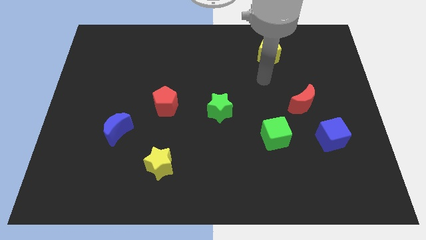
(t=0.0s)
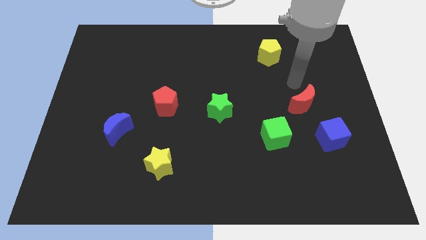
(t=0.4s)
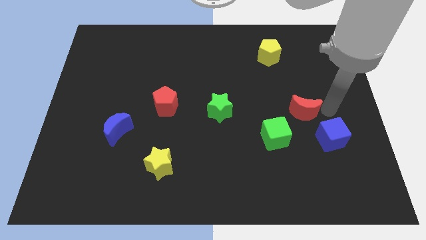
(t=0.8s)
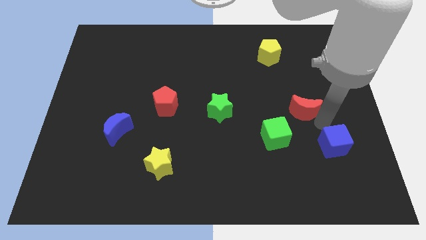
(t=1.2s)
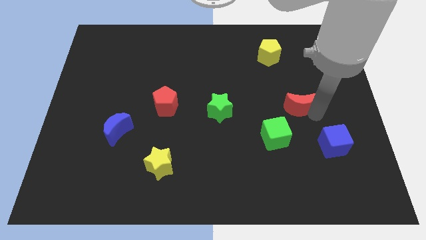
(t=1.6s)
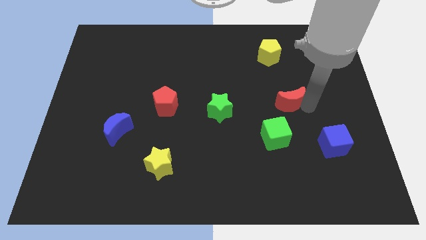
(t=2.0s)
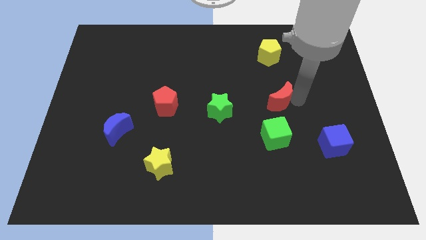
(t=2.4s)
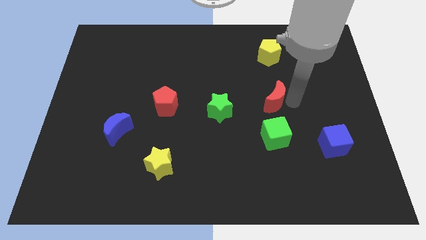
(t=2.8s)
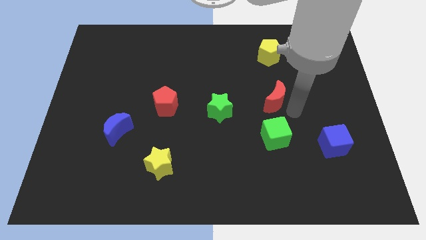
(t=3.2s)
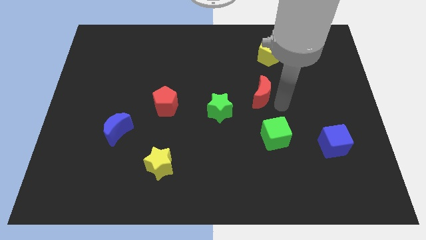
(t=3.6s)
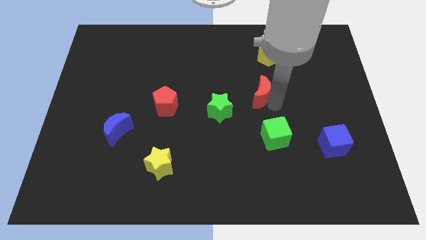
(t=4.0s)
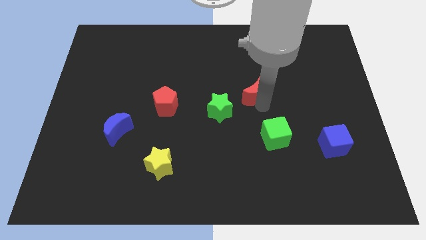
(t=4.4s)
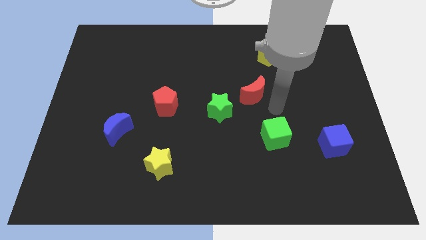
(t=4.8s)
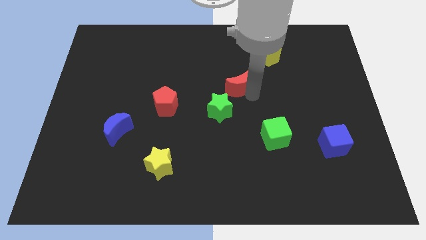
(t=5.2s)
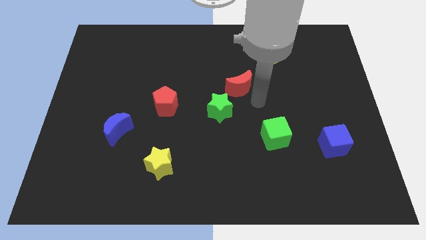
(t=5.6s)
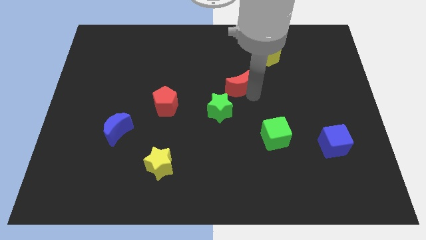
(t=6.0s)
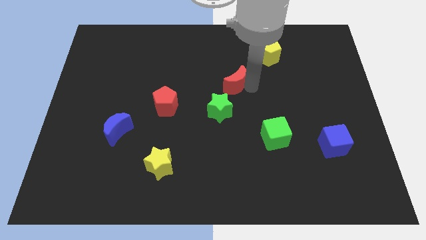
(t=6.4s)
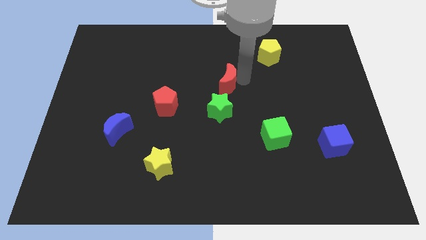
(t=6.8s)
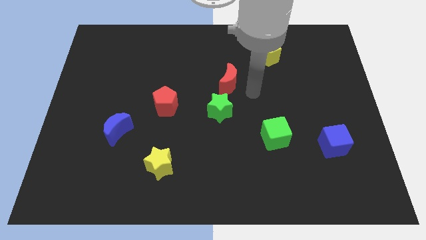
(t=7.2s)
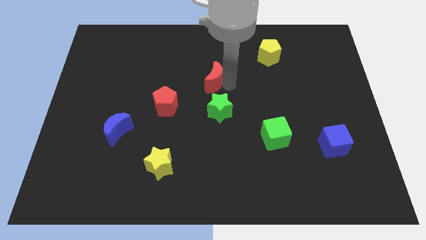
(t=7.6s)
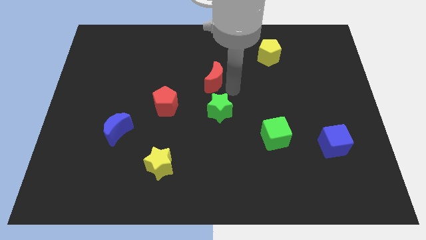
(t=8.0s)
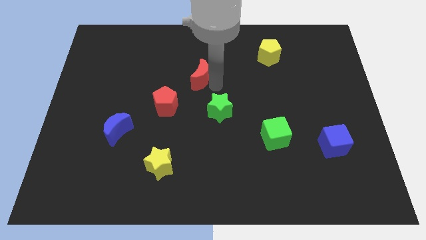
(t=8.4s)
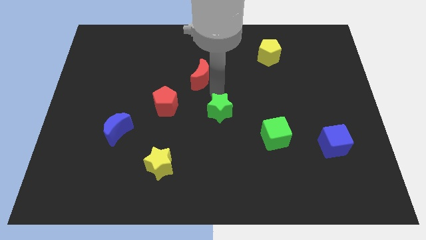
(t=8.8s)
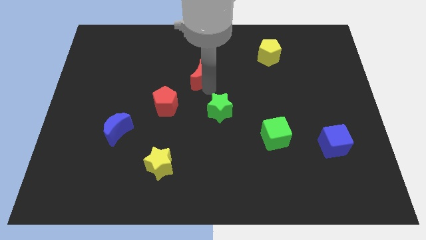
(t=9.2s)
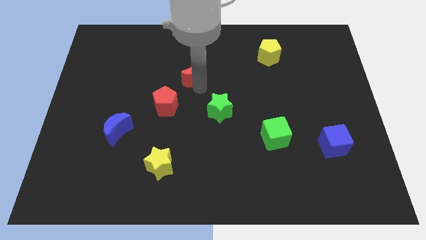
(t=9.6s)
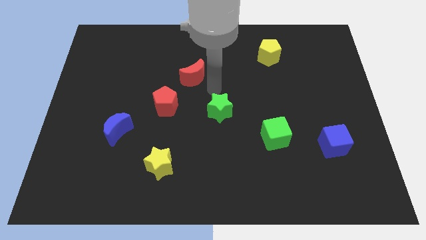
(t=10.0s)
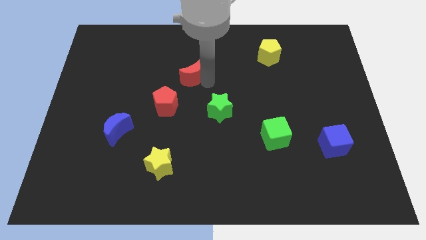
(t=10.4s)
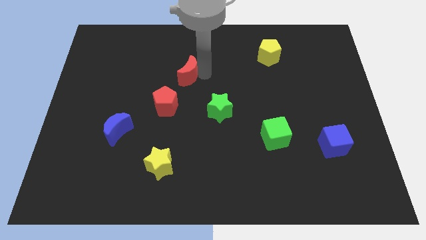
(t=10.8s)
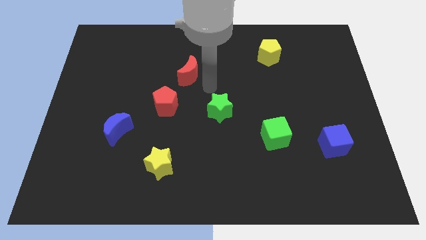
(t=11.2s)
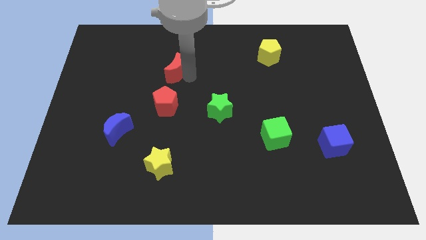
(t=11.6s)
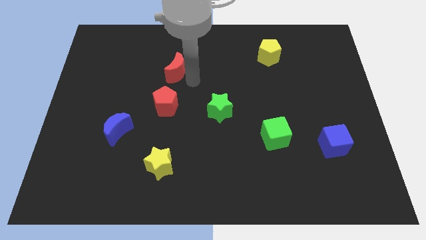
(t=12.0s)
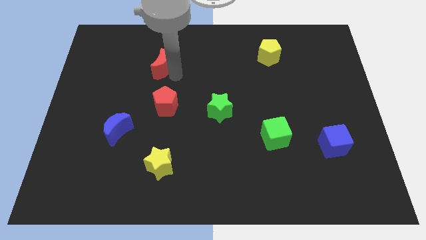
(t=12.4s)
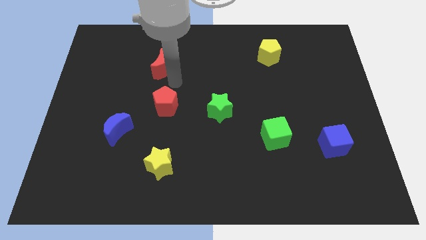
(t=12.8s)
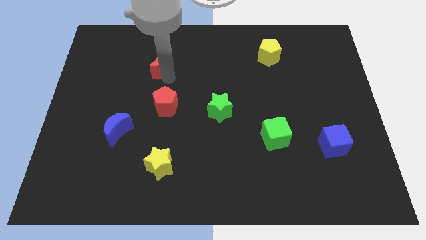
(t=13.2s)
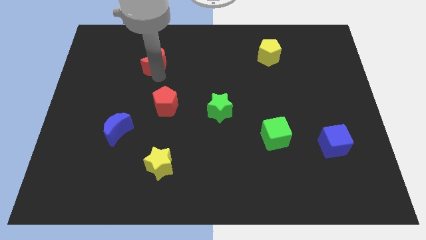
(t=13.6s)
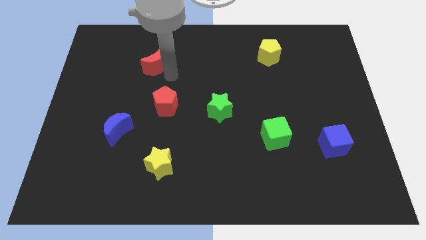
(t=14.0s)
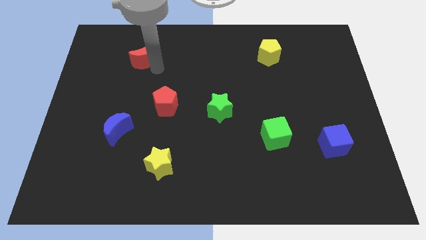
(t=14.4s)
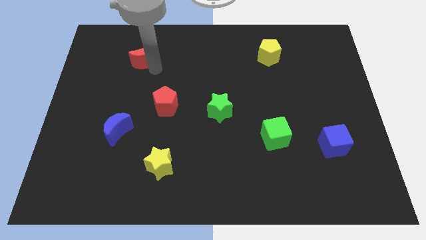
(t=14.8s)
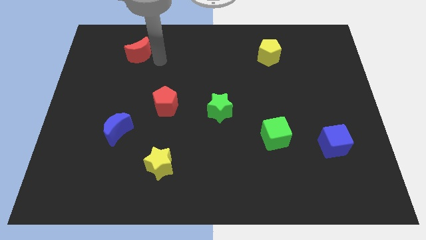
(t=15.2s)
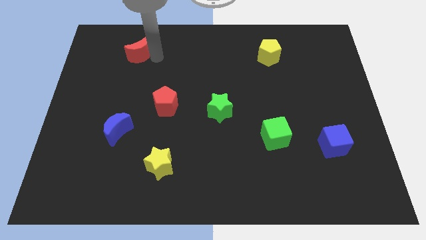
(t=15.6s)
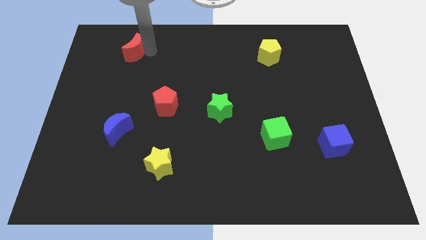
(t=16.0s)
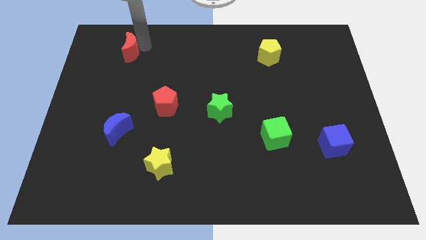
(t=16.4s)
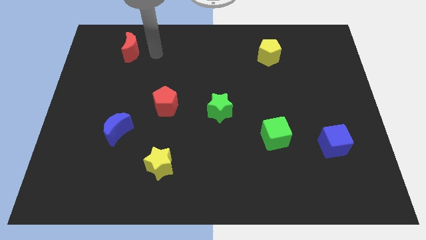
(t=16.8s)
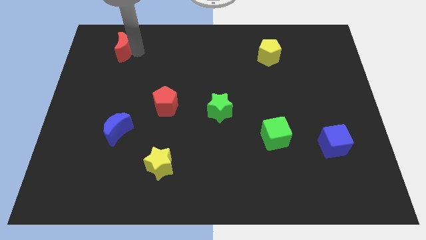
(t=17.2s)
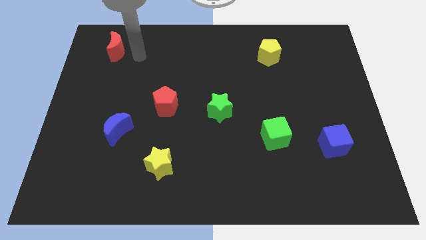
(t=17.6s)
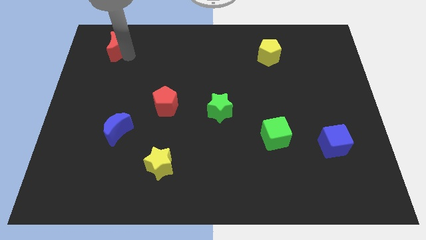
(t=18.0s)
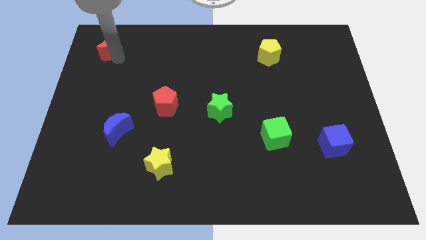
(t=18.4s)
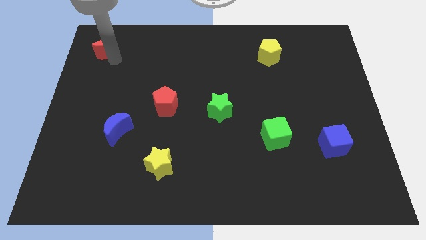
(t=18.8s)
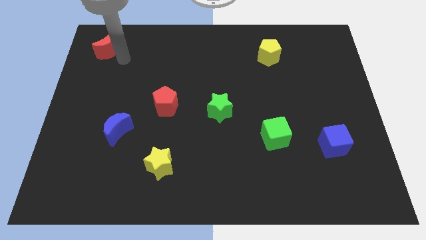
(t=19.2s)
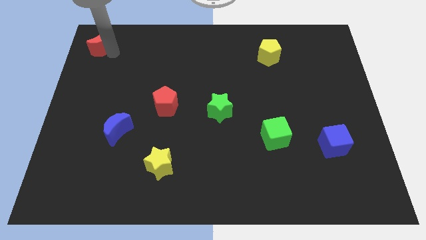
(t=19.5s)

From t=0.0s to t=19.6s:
move the red moon to the top left

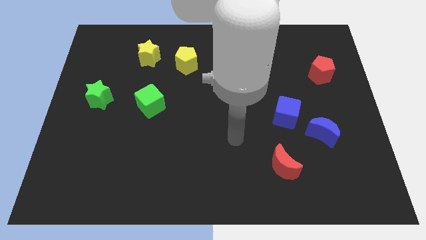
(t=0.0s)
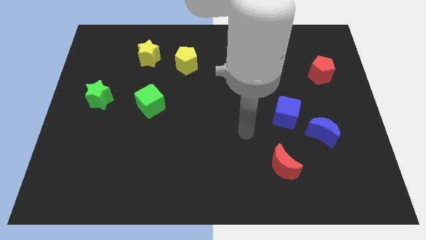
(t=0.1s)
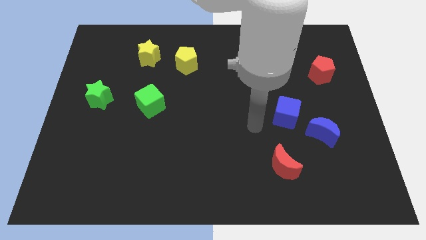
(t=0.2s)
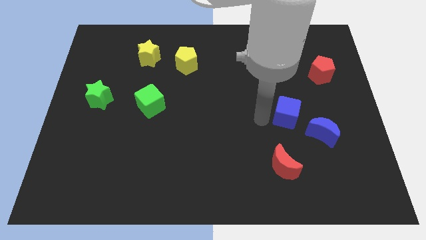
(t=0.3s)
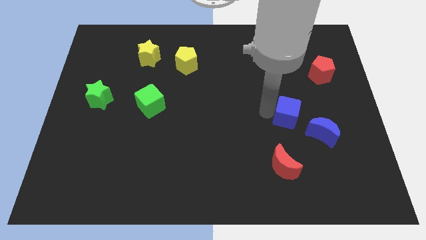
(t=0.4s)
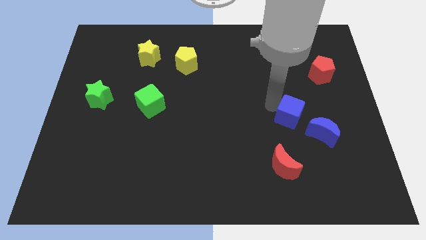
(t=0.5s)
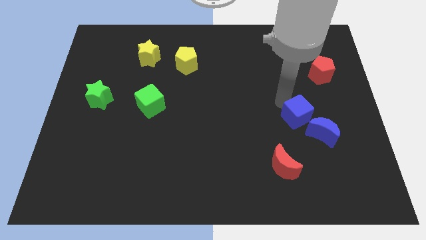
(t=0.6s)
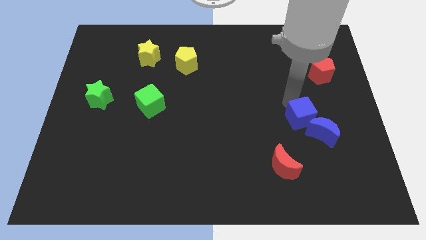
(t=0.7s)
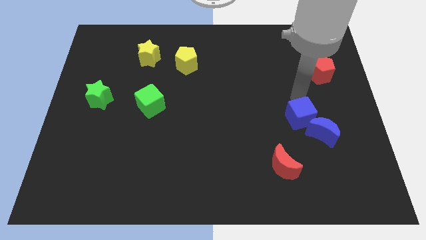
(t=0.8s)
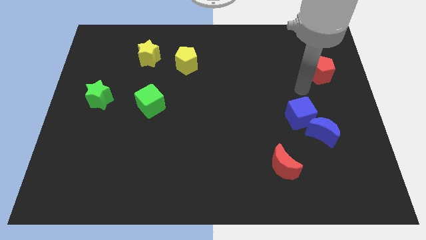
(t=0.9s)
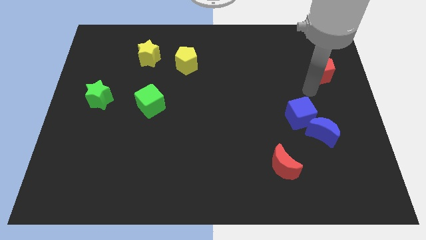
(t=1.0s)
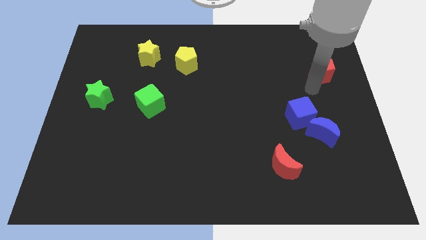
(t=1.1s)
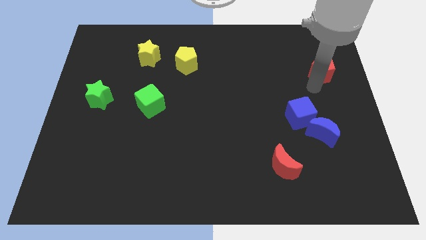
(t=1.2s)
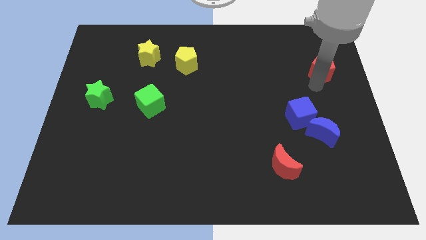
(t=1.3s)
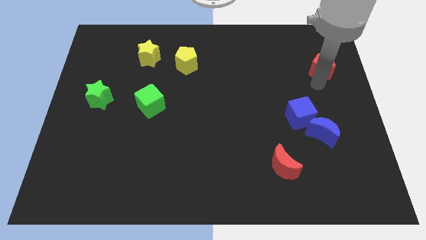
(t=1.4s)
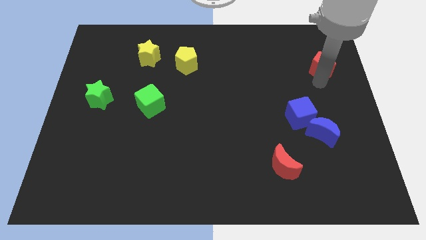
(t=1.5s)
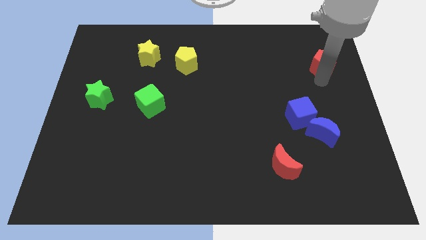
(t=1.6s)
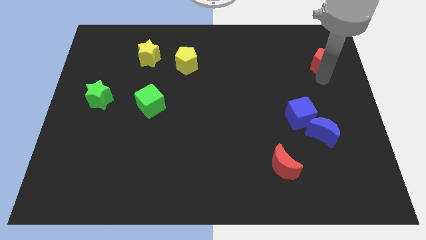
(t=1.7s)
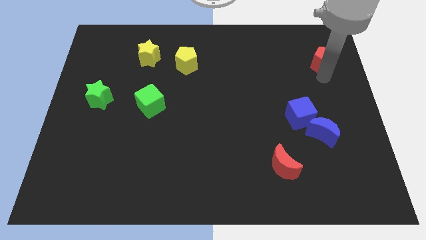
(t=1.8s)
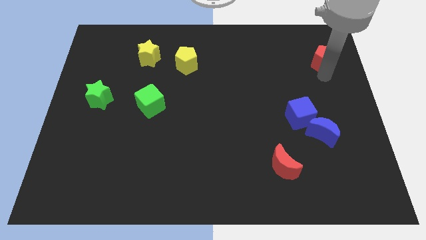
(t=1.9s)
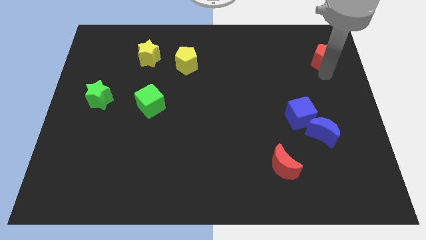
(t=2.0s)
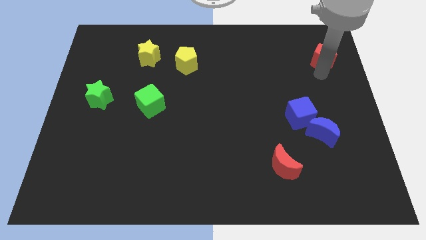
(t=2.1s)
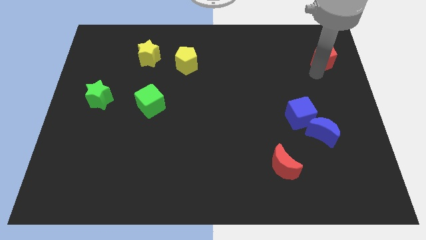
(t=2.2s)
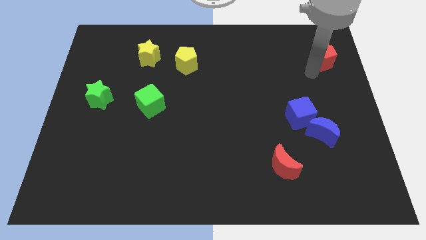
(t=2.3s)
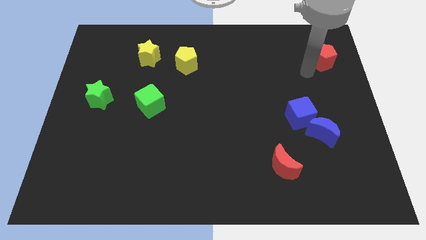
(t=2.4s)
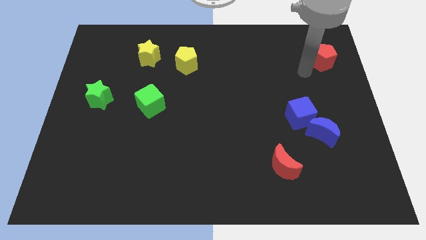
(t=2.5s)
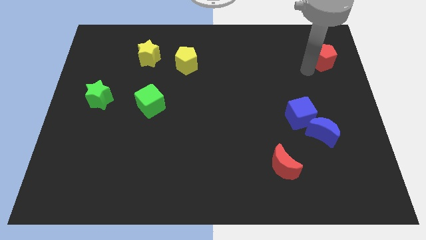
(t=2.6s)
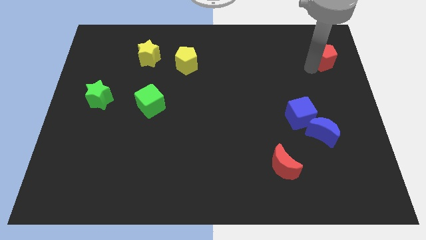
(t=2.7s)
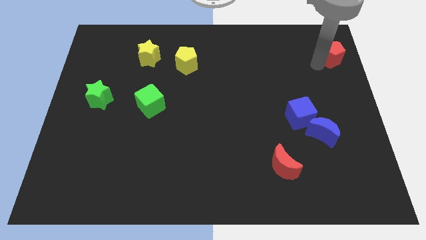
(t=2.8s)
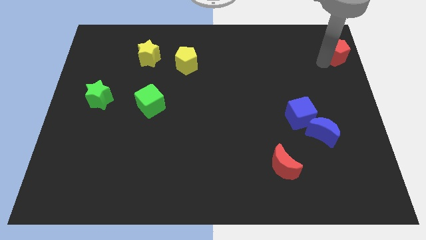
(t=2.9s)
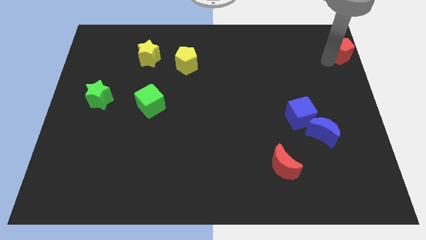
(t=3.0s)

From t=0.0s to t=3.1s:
put the red pentagon to the top right of the board
